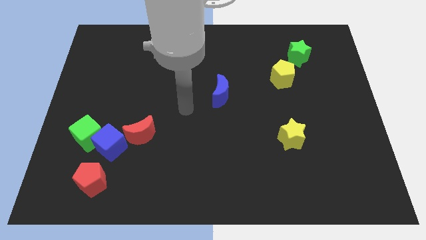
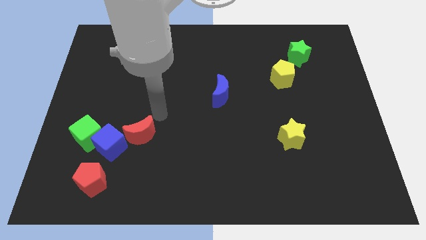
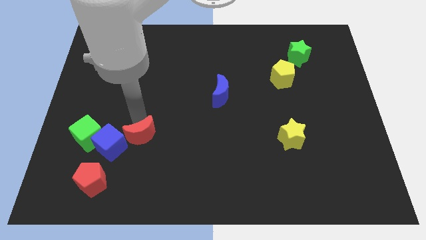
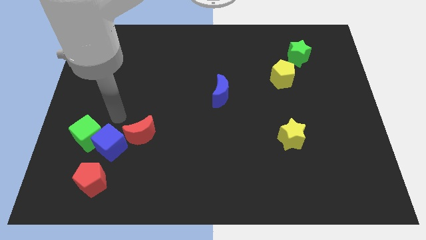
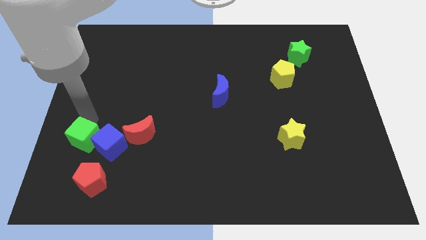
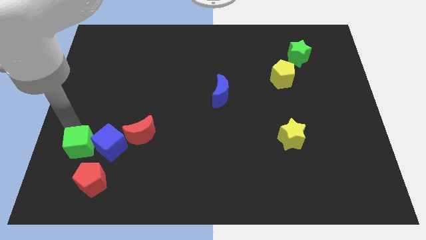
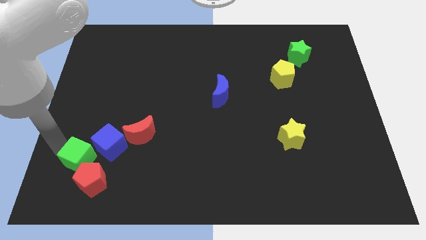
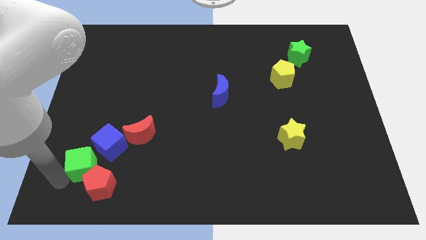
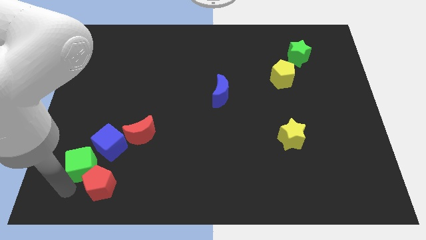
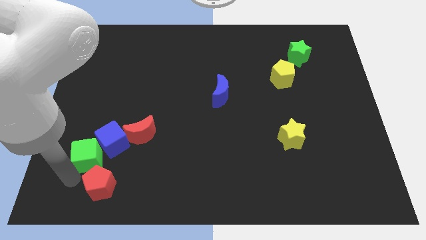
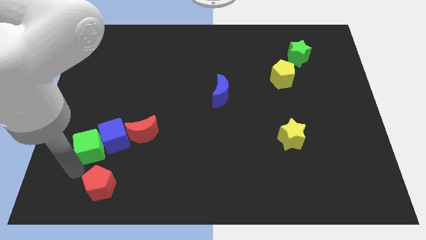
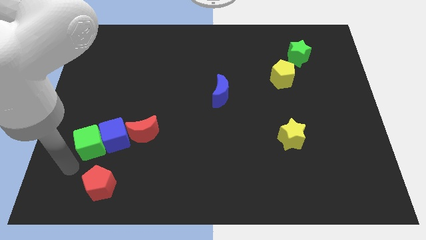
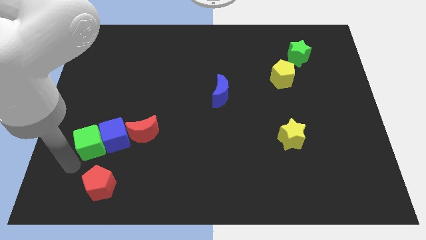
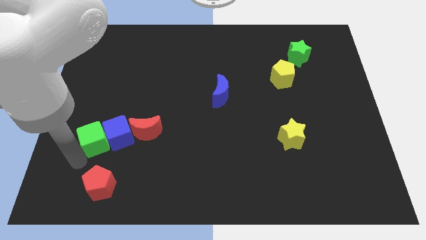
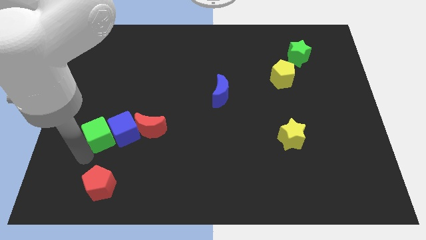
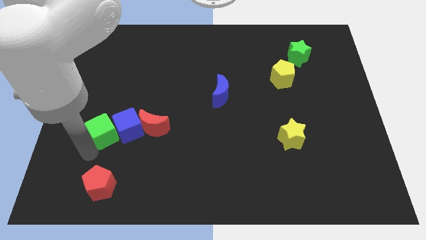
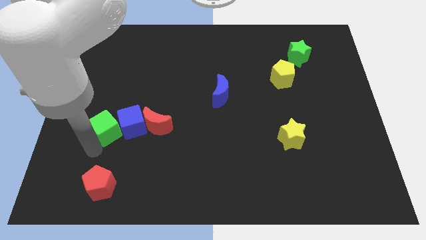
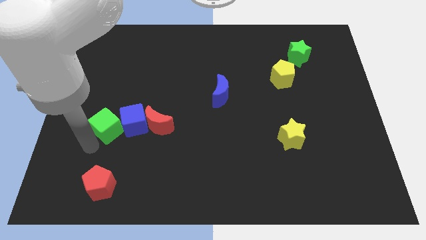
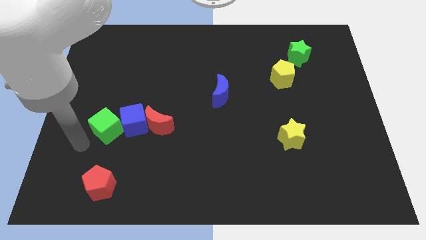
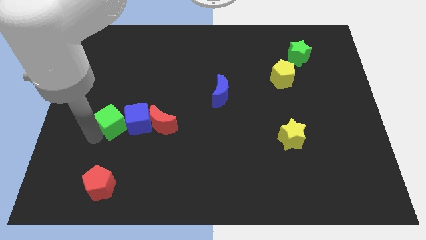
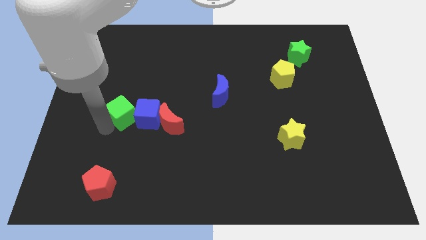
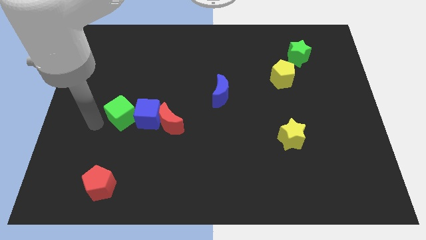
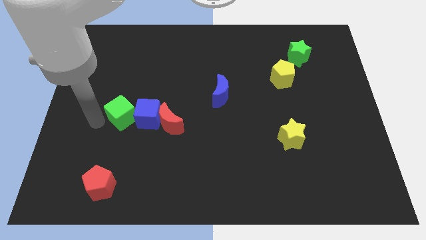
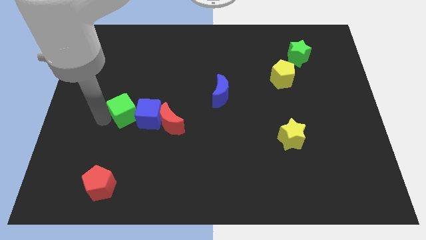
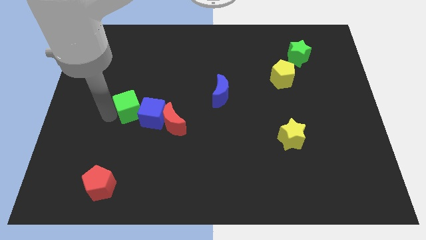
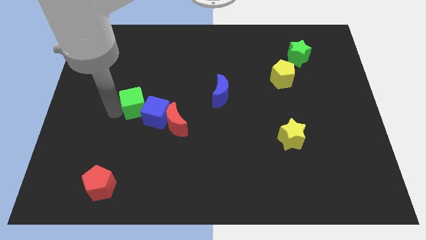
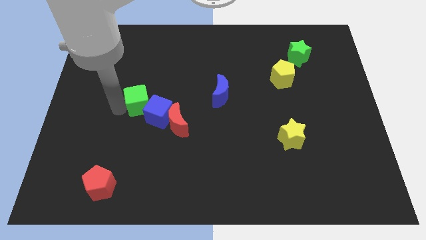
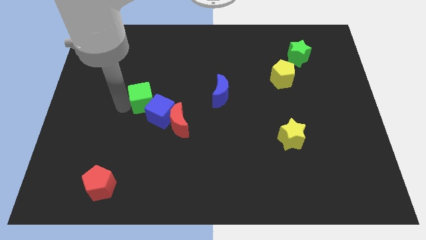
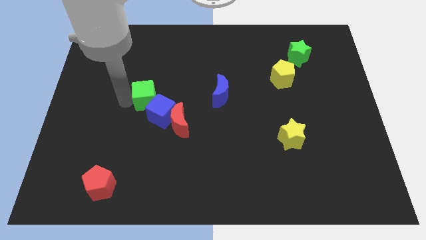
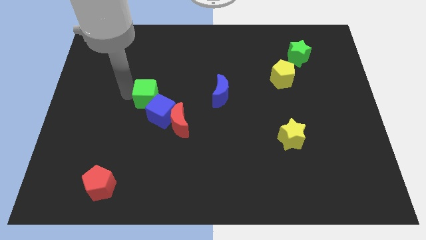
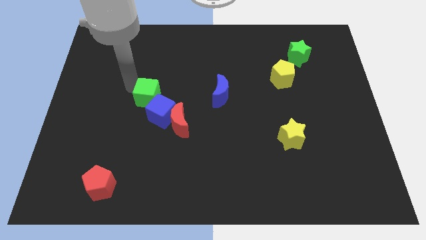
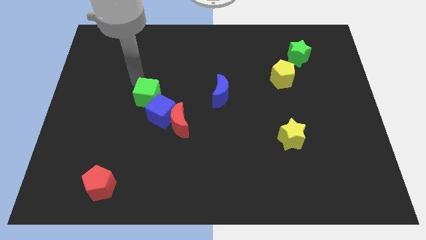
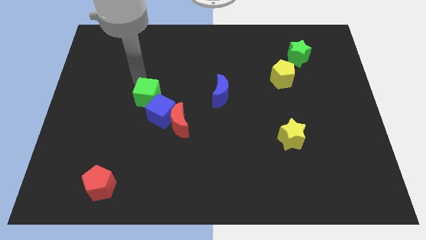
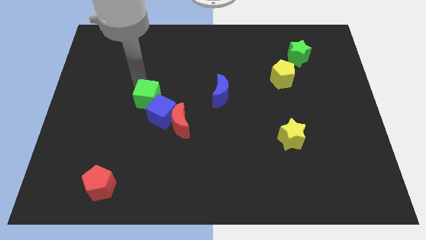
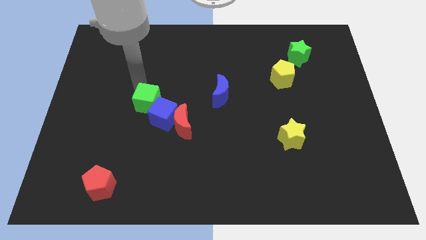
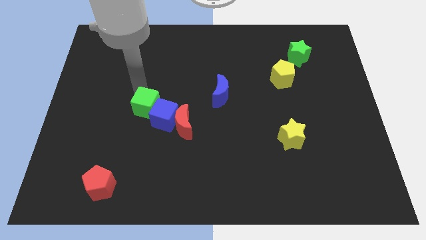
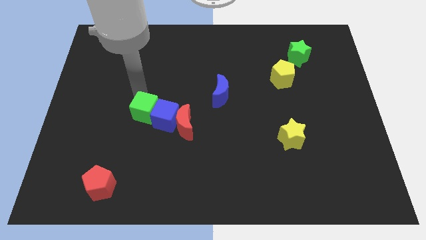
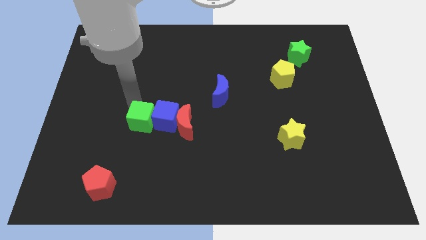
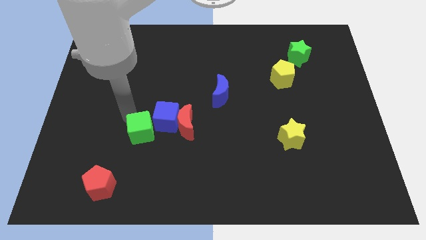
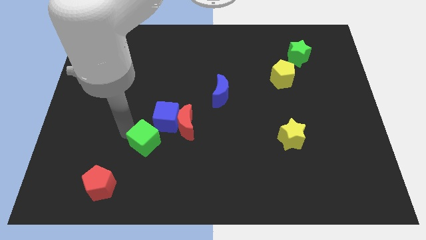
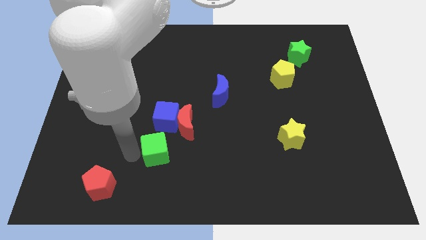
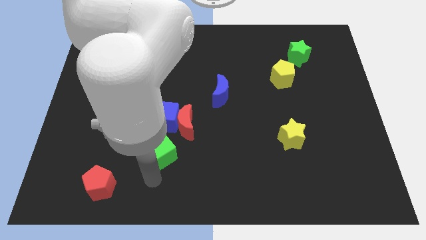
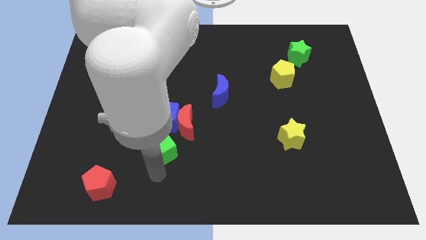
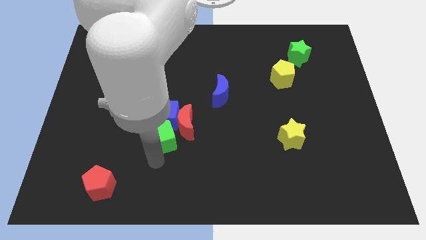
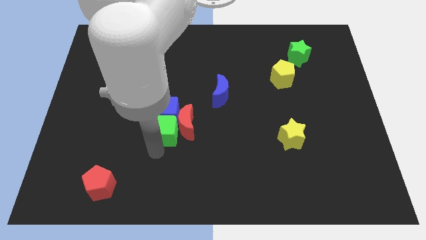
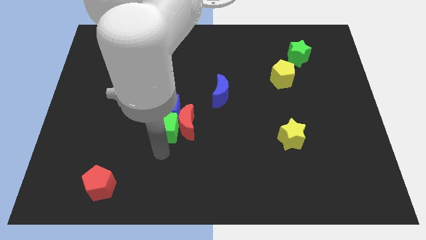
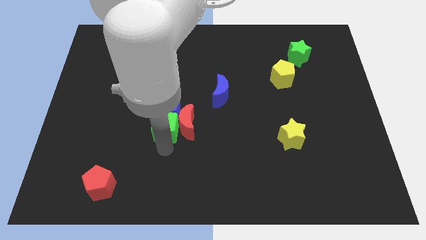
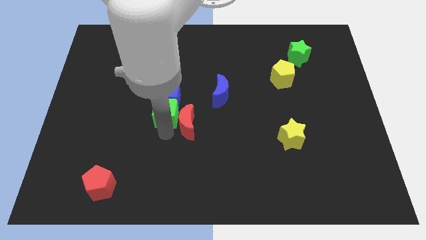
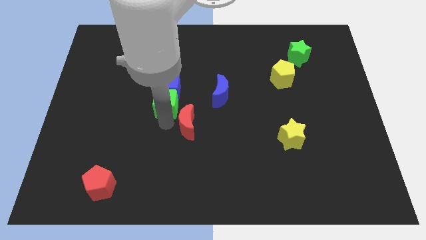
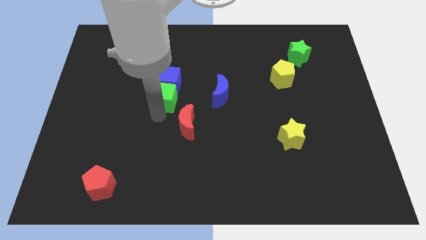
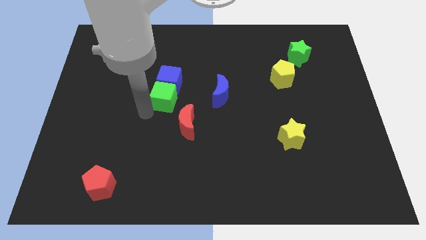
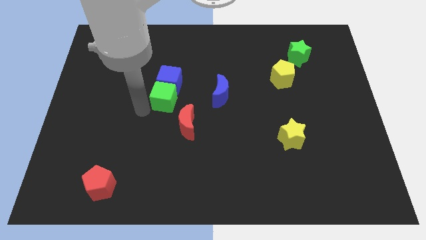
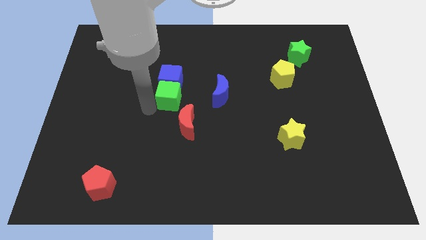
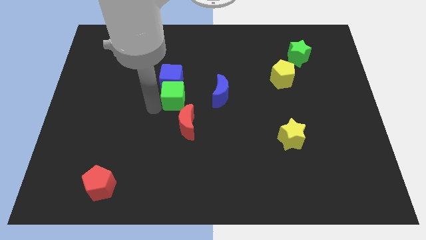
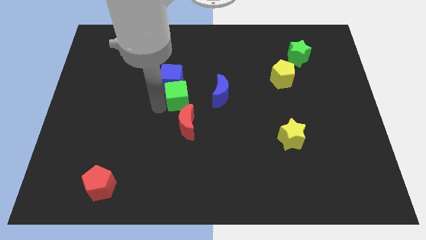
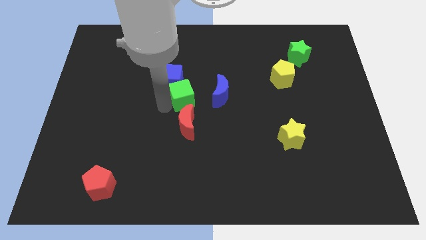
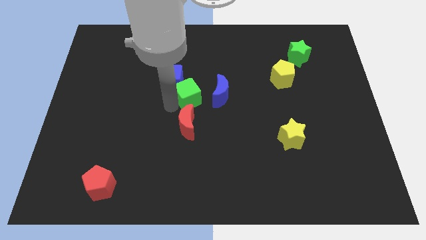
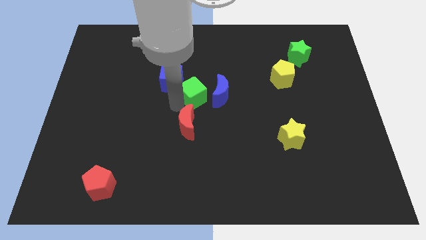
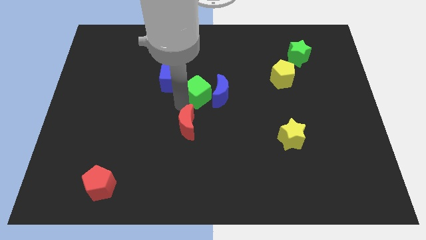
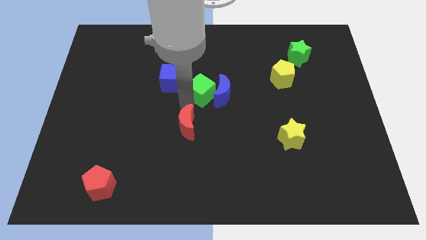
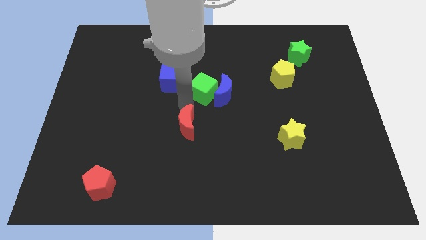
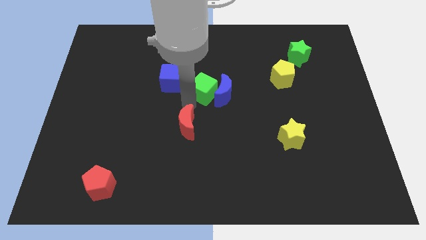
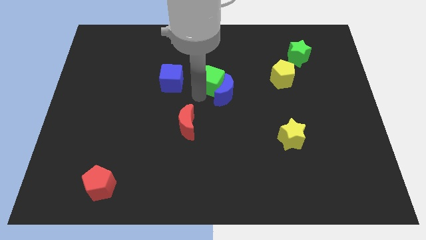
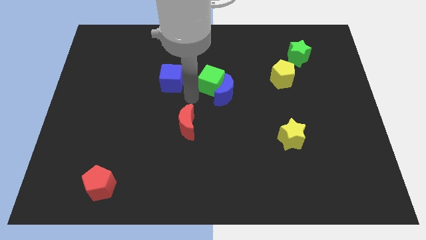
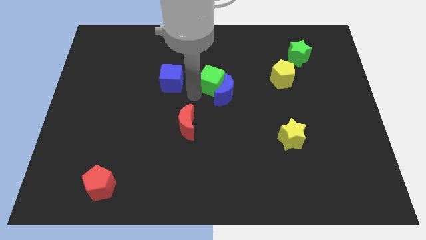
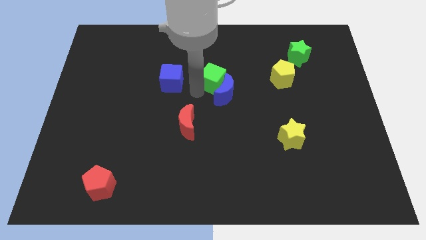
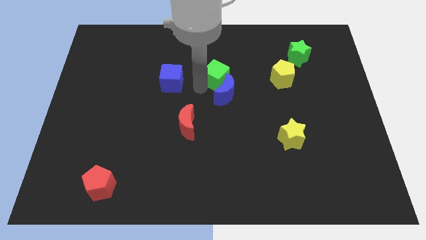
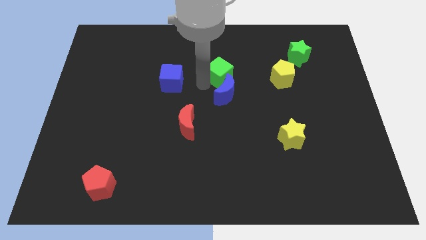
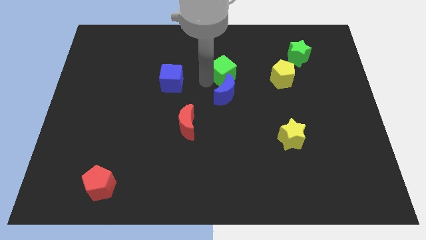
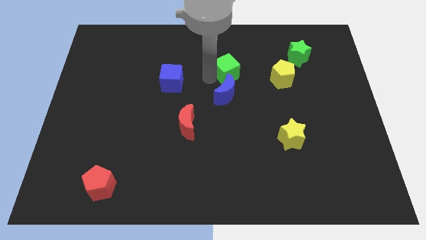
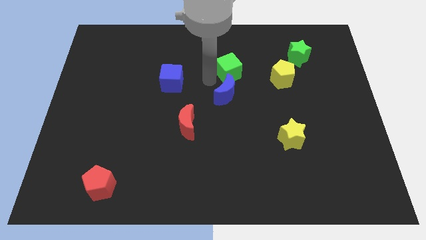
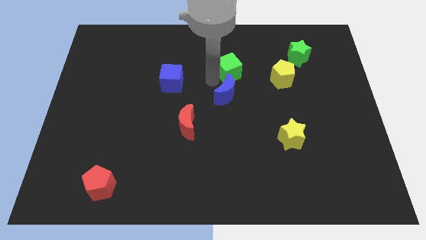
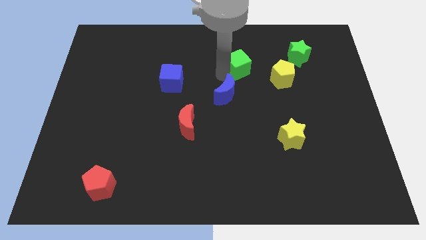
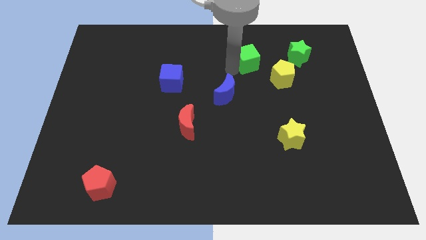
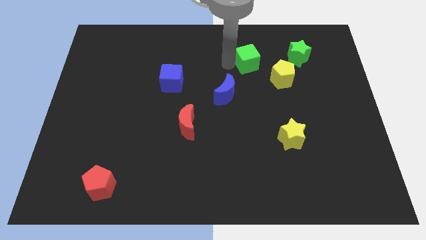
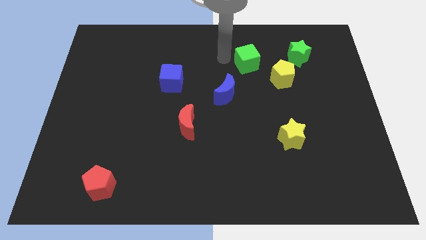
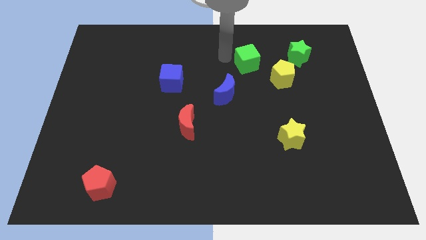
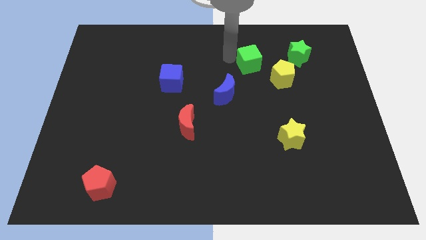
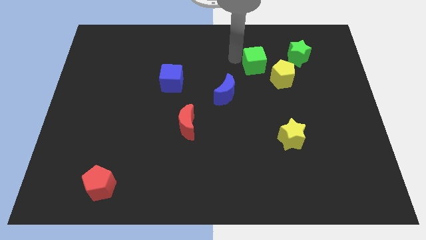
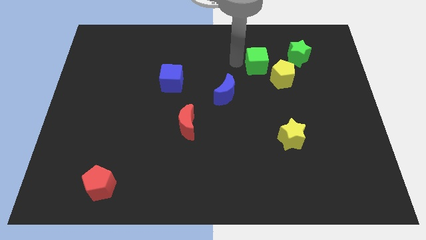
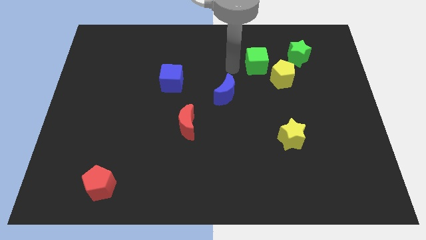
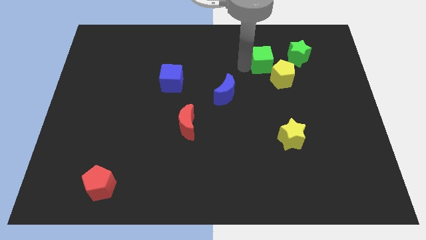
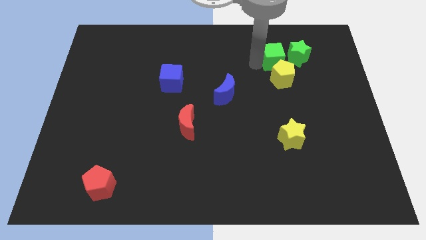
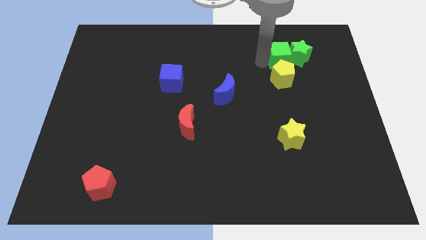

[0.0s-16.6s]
push the green cube to the green star
